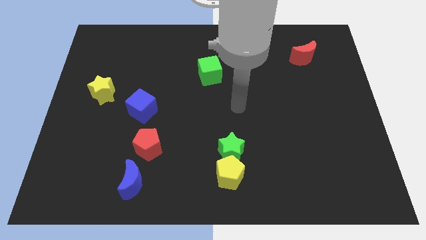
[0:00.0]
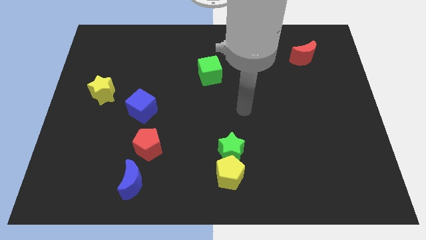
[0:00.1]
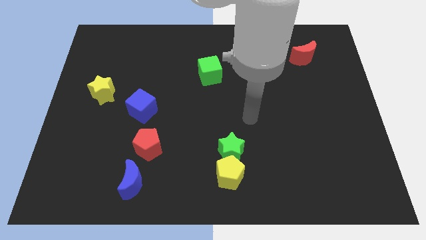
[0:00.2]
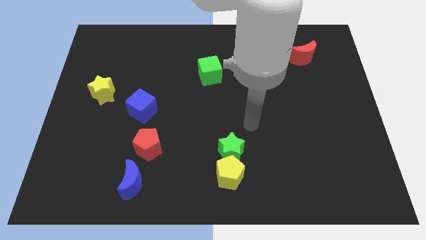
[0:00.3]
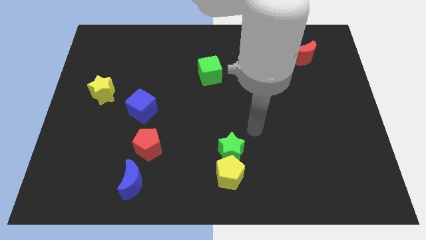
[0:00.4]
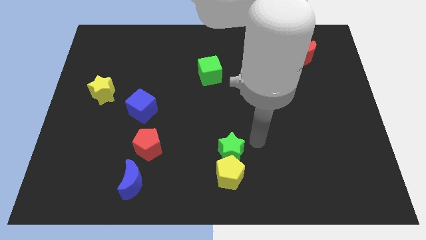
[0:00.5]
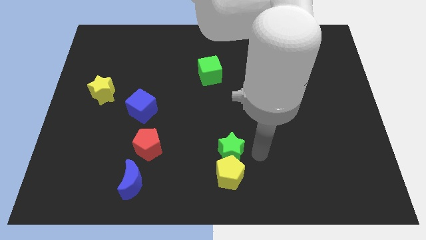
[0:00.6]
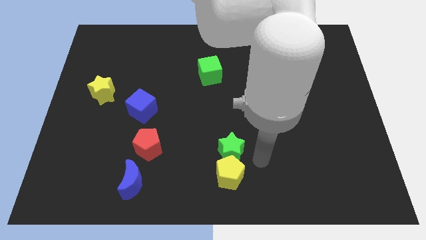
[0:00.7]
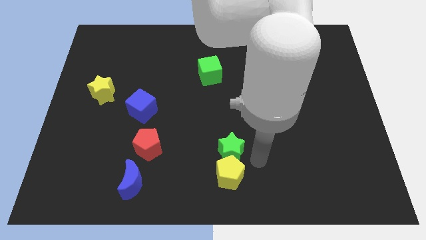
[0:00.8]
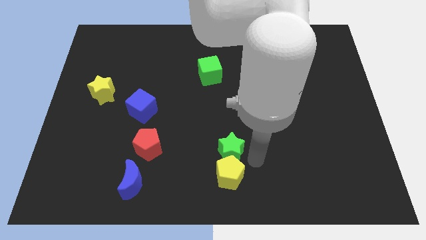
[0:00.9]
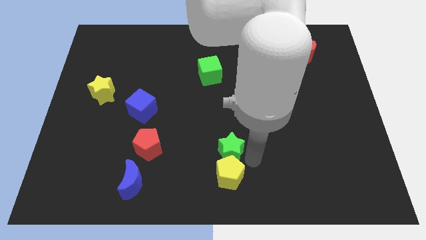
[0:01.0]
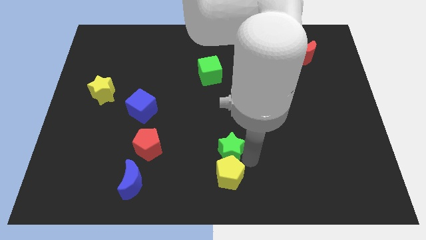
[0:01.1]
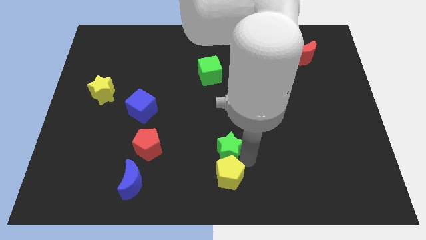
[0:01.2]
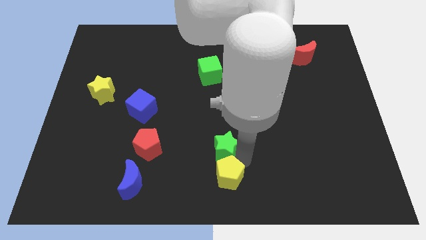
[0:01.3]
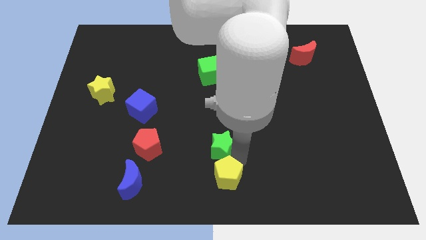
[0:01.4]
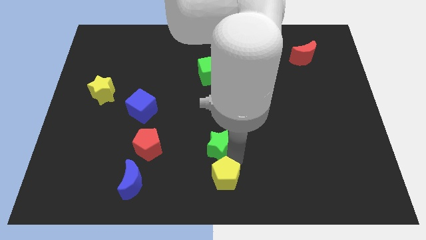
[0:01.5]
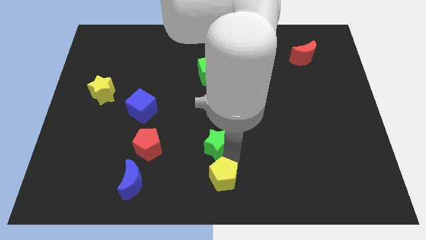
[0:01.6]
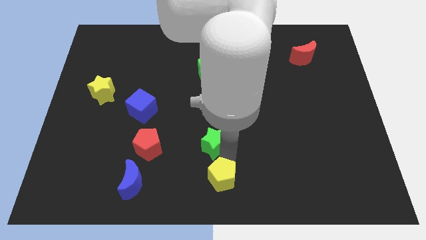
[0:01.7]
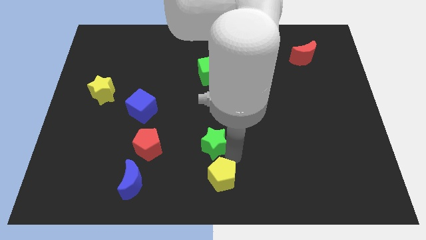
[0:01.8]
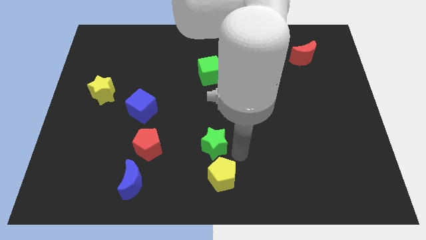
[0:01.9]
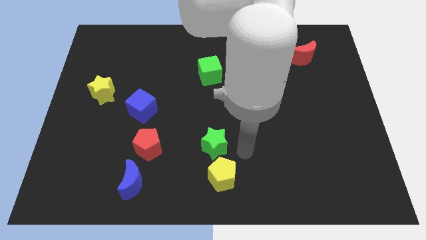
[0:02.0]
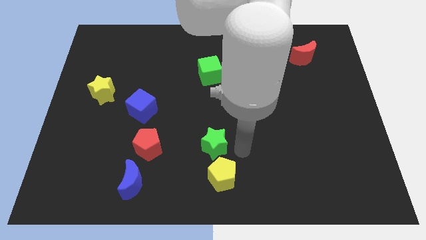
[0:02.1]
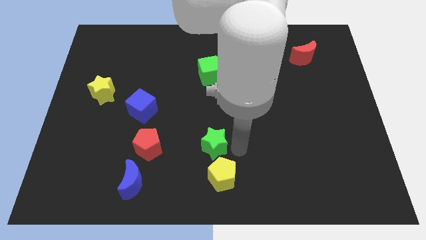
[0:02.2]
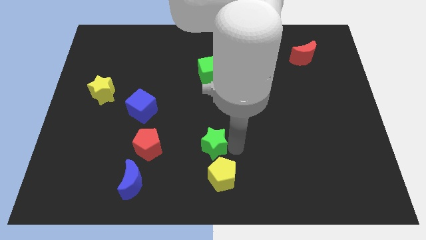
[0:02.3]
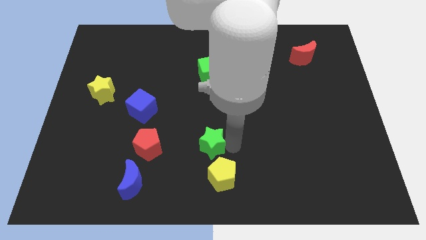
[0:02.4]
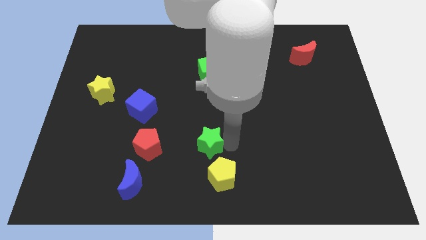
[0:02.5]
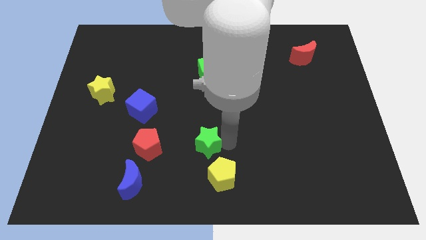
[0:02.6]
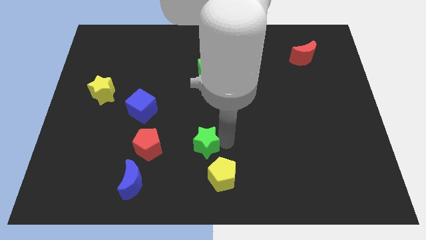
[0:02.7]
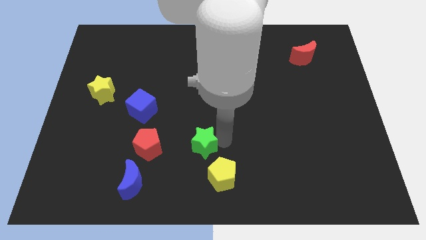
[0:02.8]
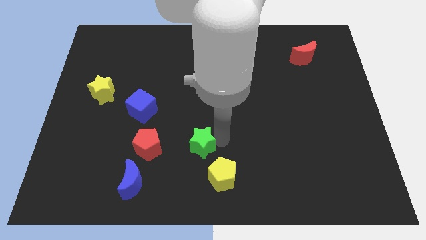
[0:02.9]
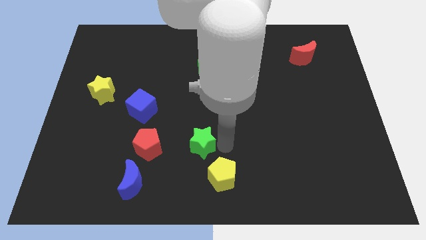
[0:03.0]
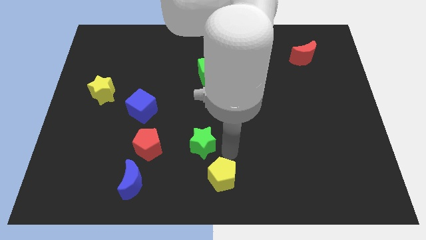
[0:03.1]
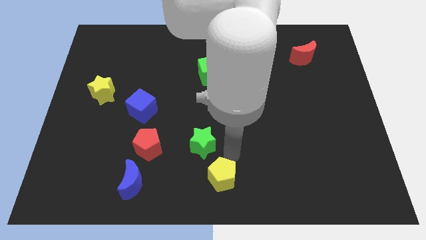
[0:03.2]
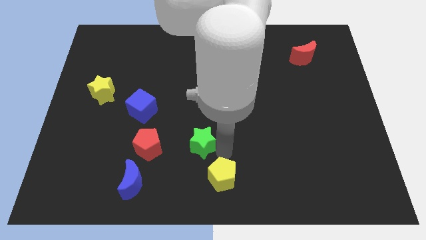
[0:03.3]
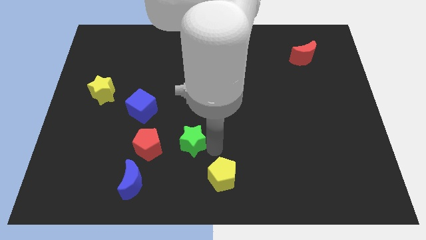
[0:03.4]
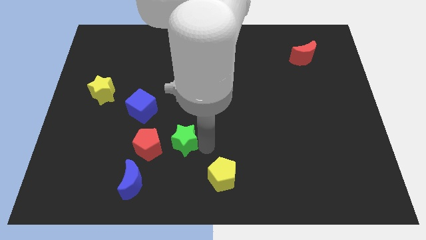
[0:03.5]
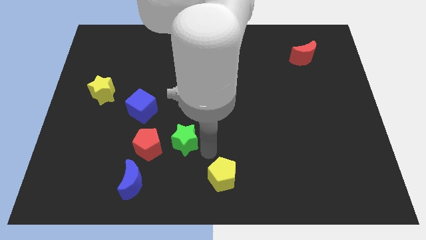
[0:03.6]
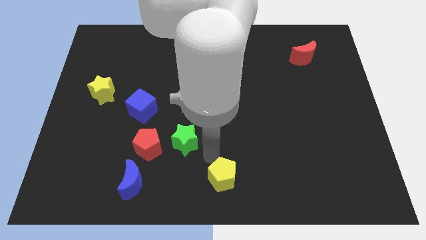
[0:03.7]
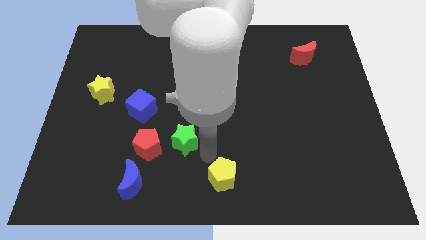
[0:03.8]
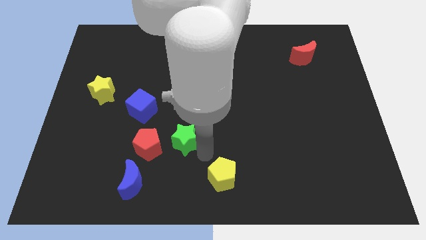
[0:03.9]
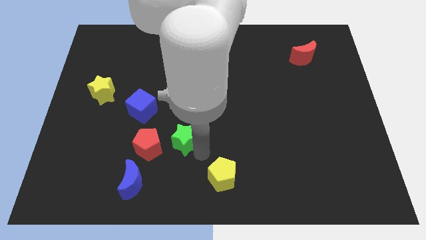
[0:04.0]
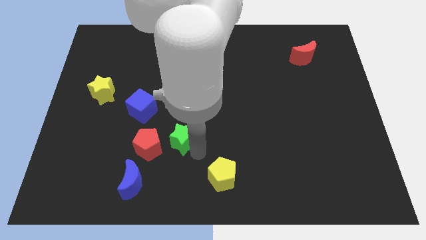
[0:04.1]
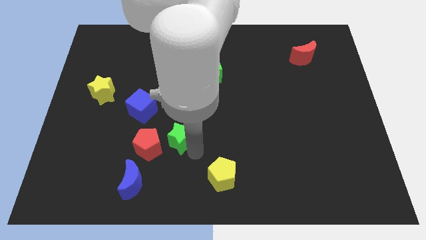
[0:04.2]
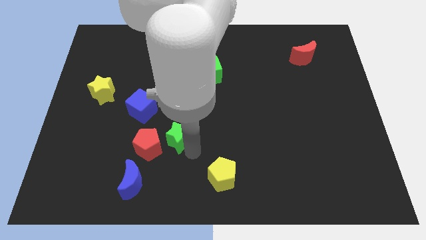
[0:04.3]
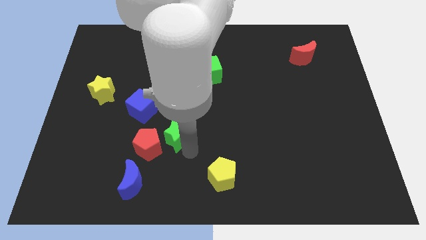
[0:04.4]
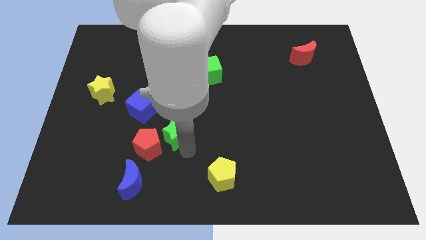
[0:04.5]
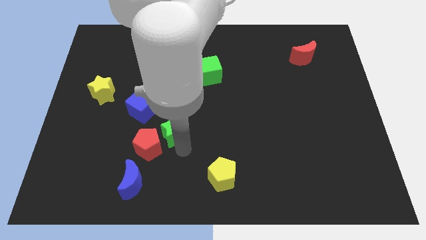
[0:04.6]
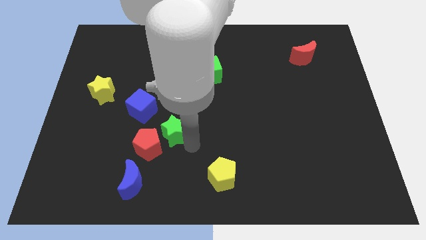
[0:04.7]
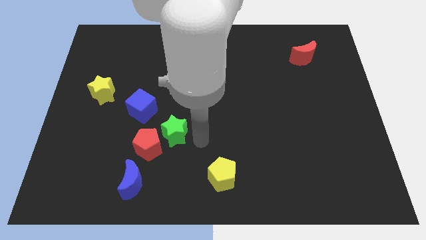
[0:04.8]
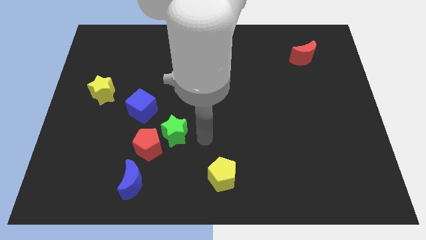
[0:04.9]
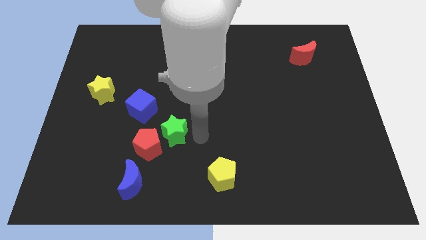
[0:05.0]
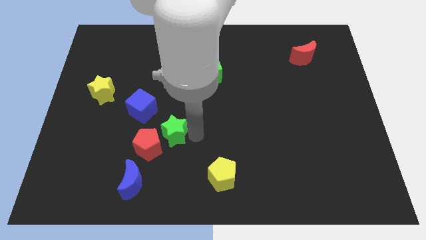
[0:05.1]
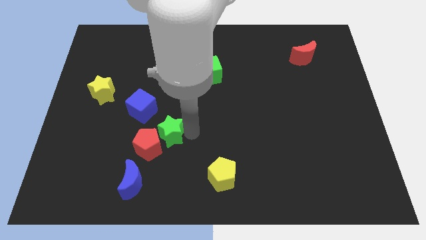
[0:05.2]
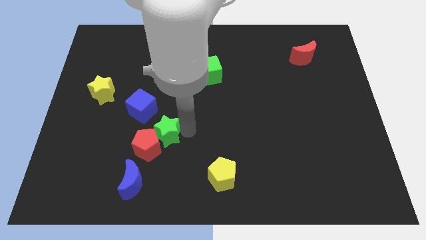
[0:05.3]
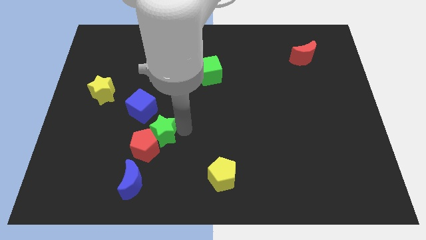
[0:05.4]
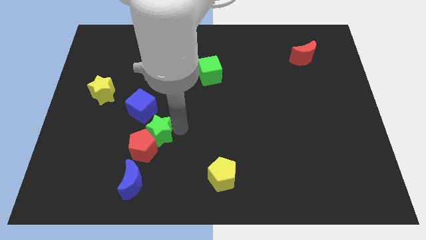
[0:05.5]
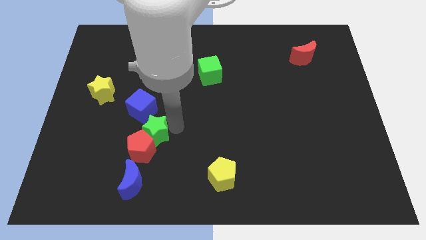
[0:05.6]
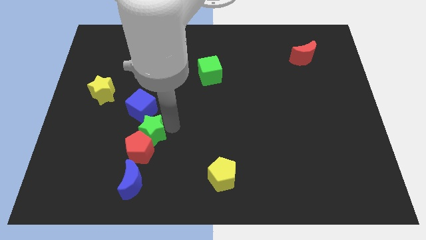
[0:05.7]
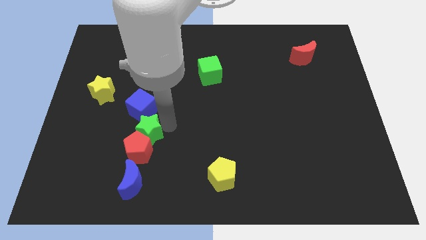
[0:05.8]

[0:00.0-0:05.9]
push the green star to the top left side of the red pentagon

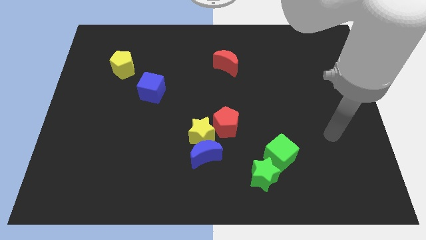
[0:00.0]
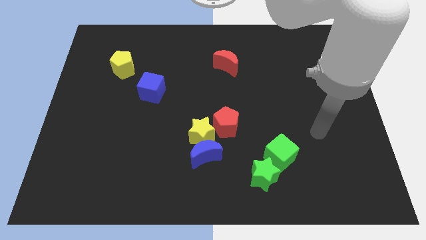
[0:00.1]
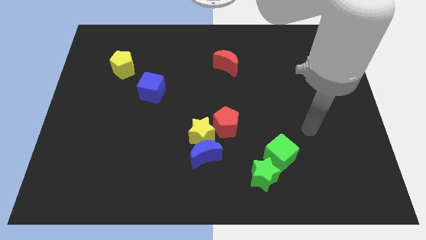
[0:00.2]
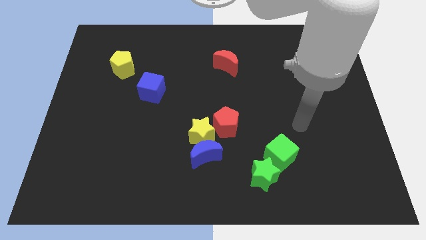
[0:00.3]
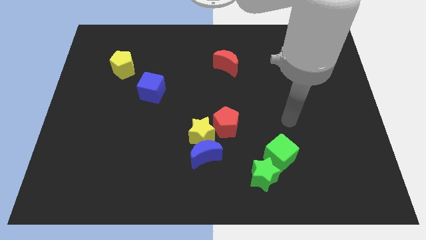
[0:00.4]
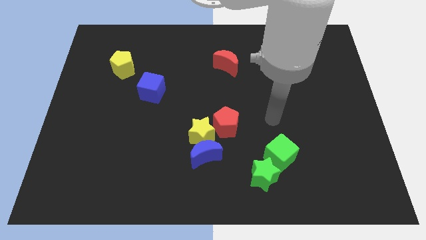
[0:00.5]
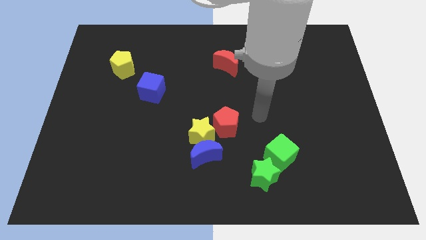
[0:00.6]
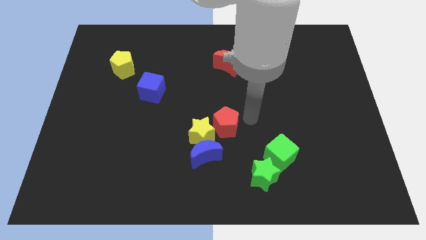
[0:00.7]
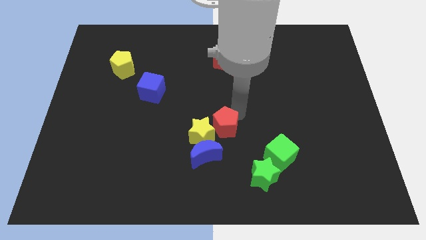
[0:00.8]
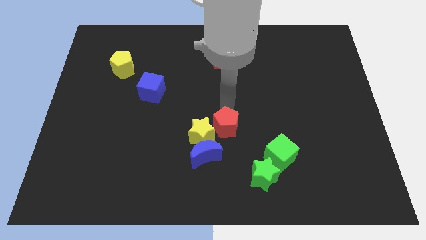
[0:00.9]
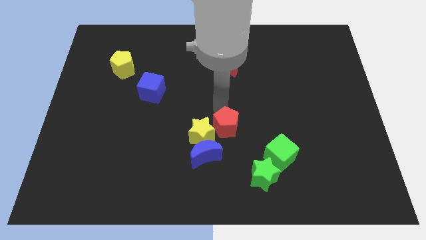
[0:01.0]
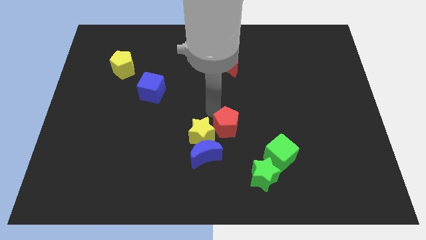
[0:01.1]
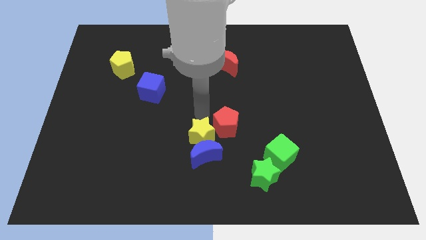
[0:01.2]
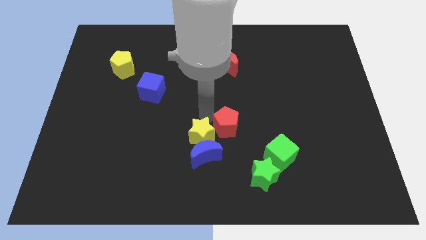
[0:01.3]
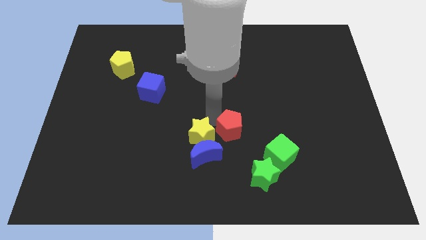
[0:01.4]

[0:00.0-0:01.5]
put the red pentagon to the top left side of the green cube
